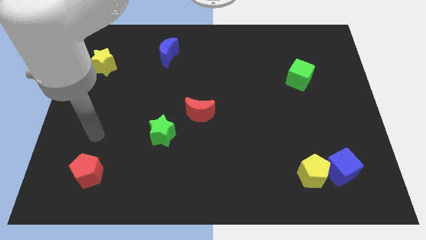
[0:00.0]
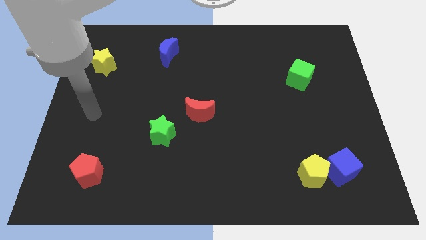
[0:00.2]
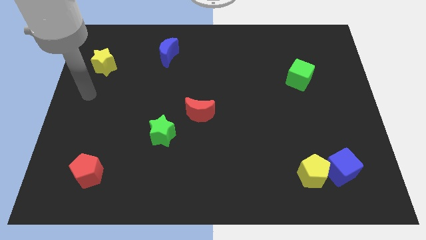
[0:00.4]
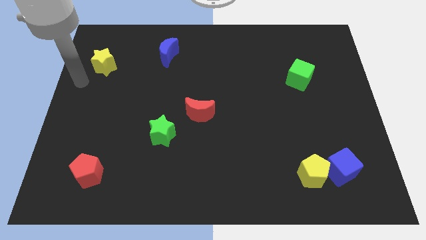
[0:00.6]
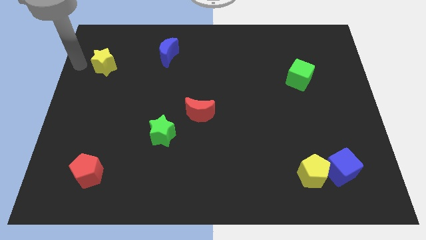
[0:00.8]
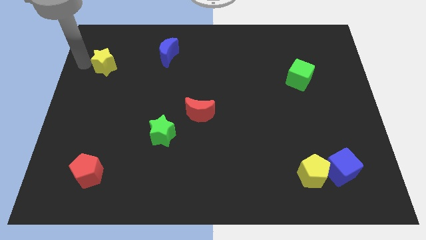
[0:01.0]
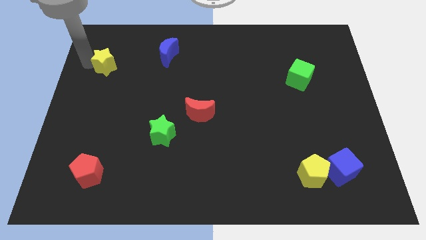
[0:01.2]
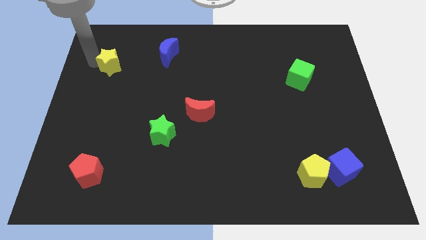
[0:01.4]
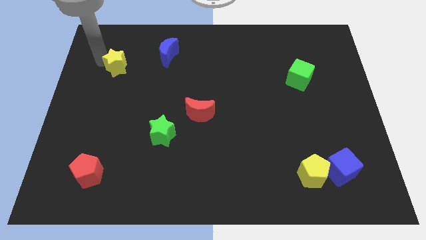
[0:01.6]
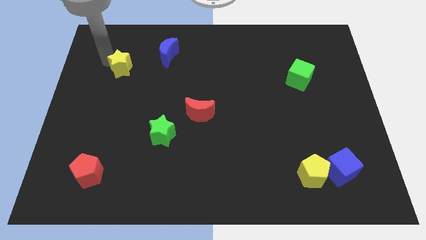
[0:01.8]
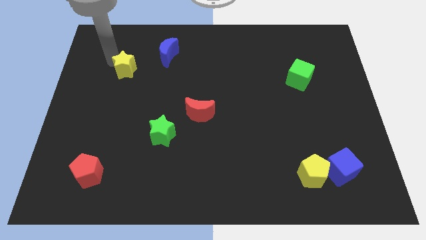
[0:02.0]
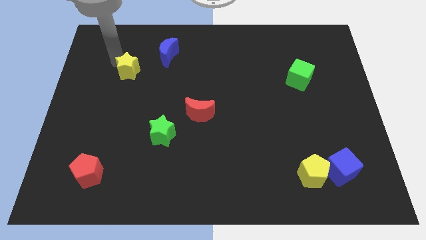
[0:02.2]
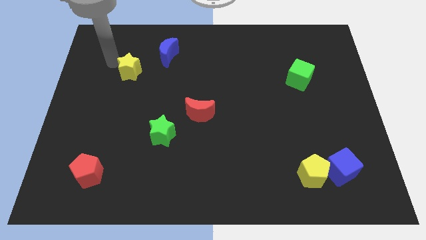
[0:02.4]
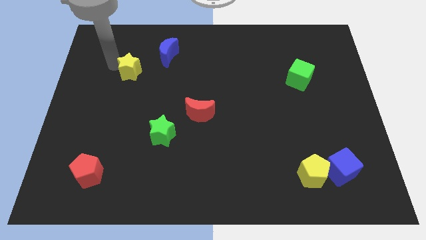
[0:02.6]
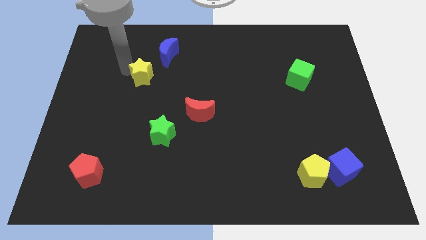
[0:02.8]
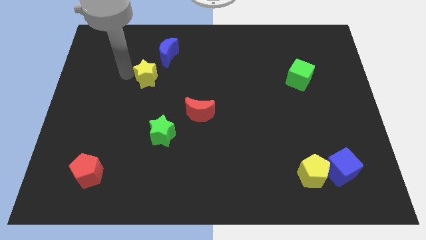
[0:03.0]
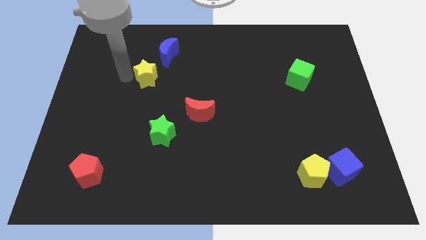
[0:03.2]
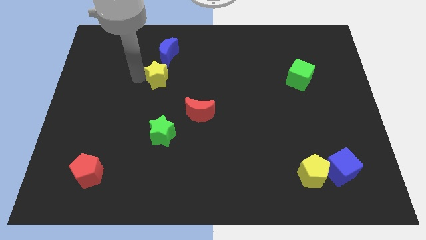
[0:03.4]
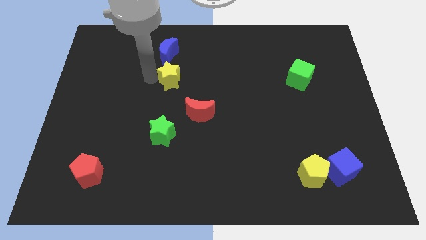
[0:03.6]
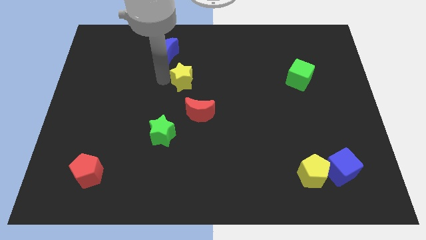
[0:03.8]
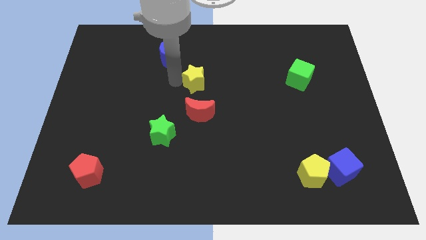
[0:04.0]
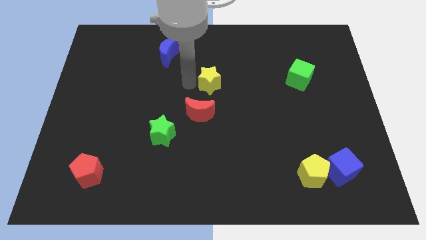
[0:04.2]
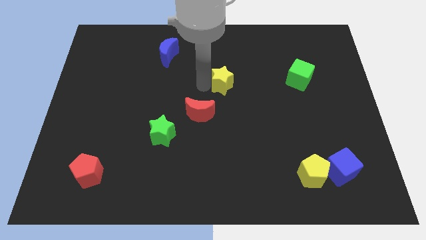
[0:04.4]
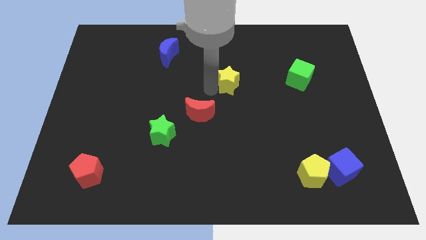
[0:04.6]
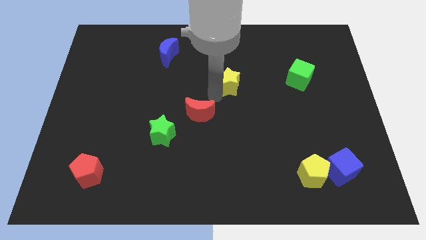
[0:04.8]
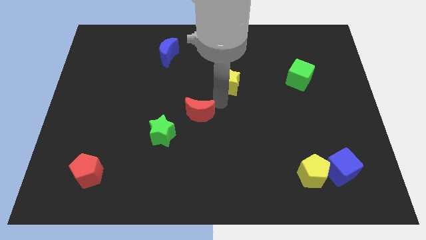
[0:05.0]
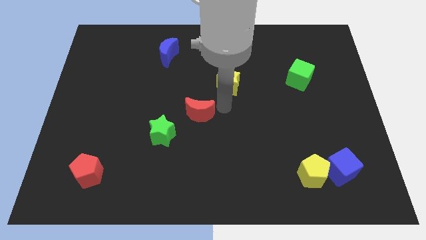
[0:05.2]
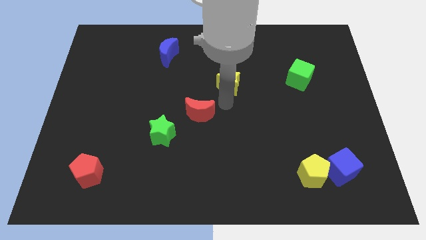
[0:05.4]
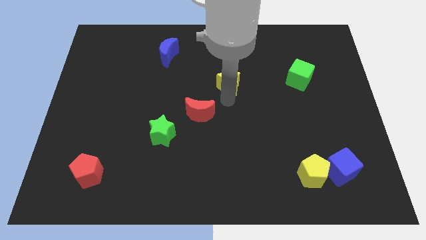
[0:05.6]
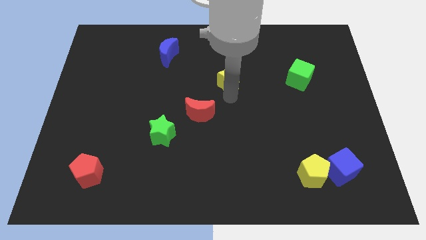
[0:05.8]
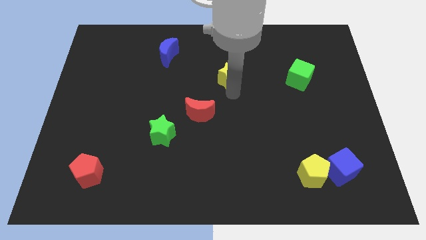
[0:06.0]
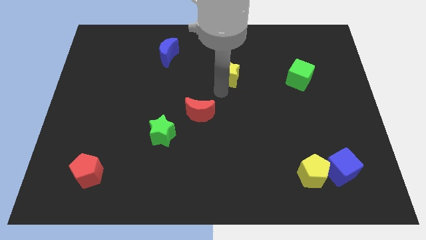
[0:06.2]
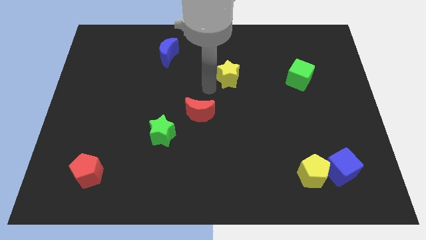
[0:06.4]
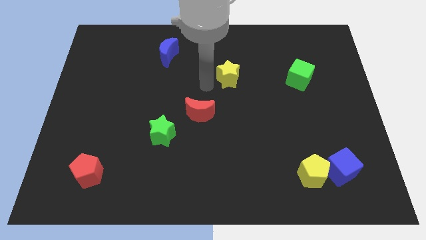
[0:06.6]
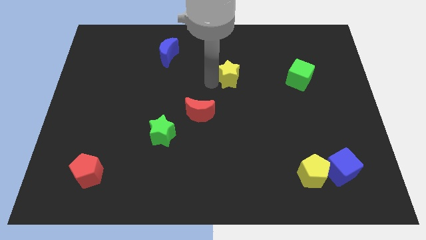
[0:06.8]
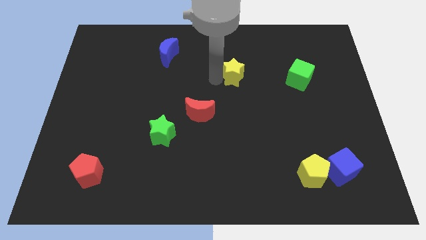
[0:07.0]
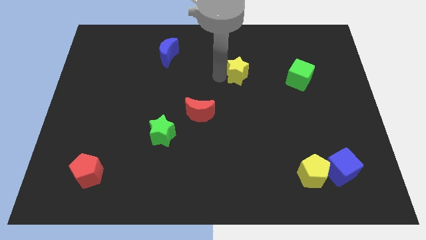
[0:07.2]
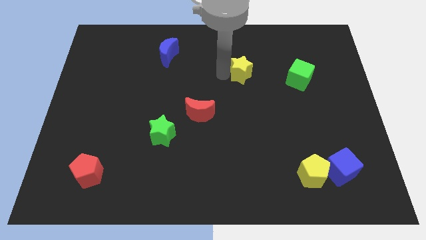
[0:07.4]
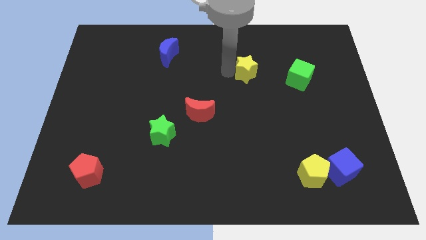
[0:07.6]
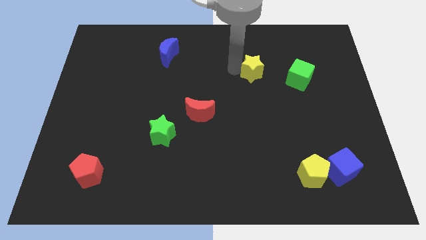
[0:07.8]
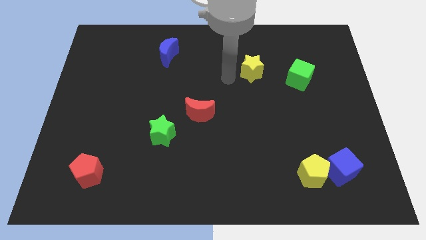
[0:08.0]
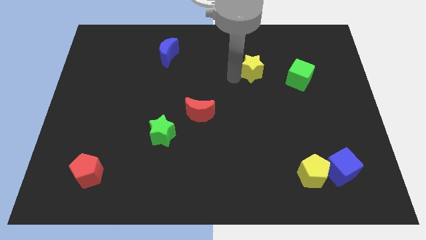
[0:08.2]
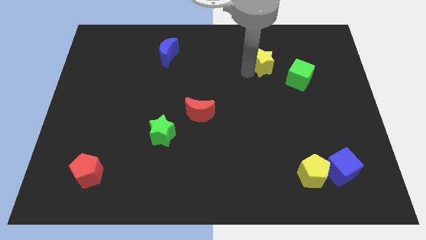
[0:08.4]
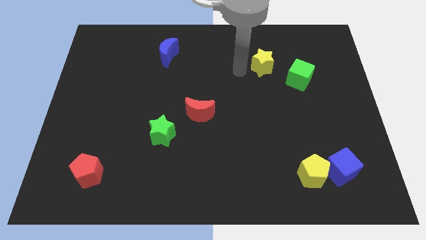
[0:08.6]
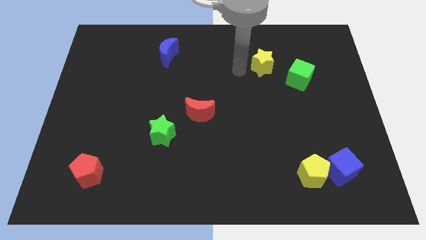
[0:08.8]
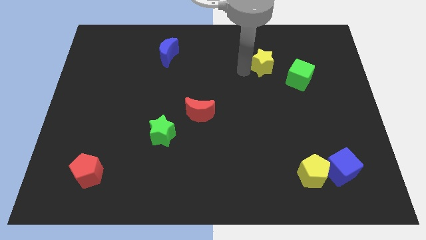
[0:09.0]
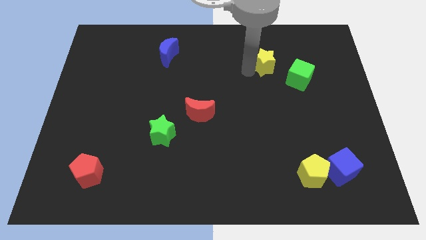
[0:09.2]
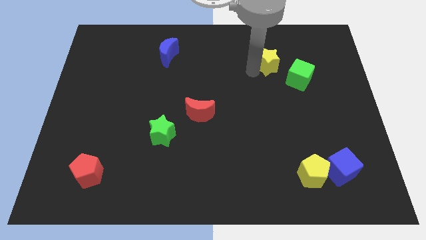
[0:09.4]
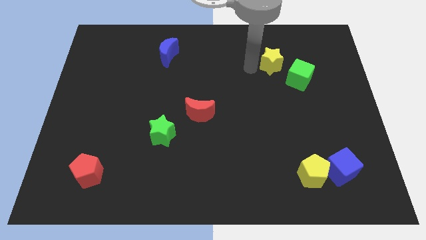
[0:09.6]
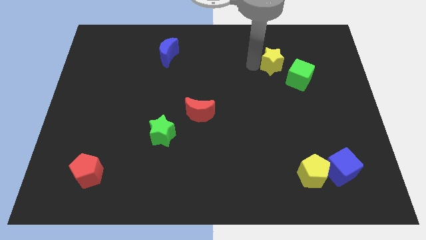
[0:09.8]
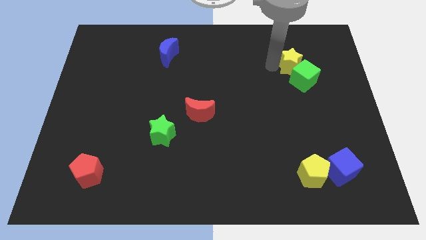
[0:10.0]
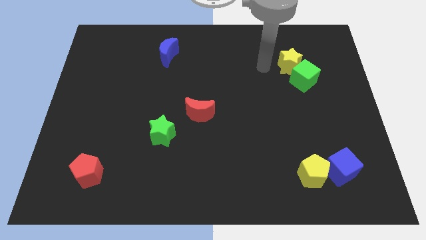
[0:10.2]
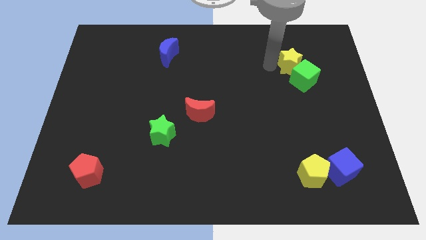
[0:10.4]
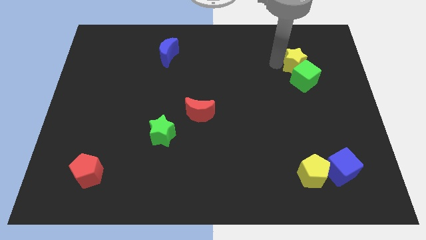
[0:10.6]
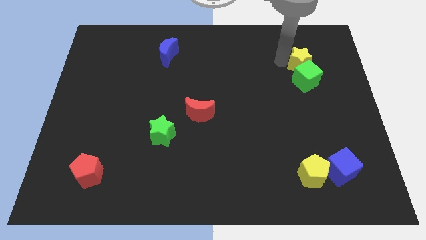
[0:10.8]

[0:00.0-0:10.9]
put the yellow star diagonally up and to the right of the green cube

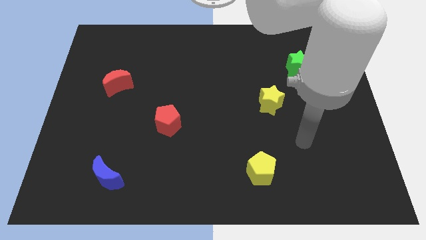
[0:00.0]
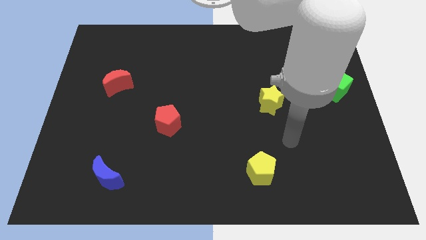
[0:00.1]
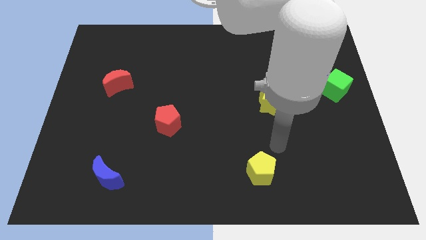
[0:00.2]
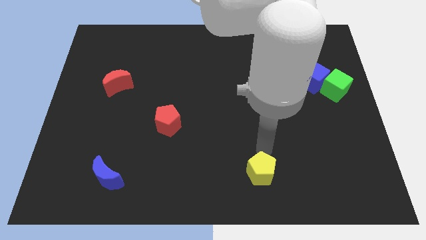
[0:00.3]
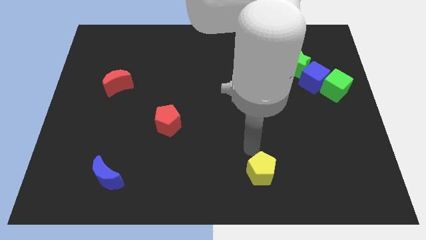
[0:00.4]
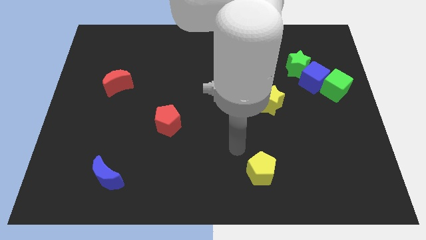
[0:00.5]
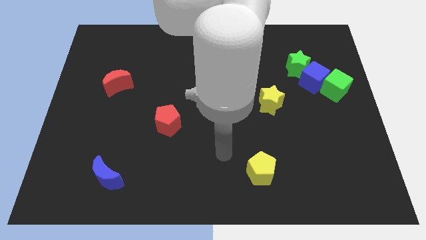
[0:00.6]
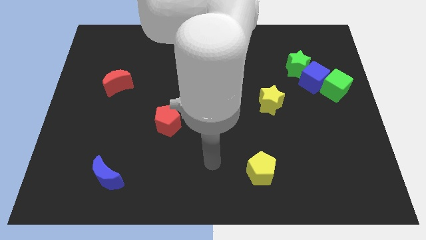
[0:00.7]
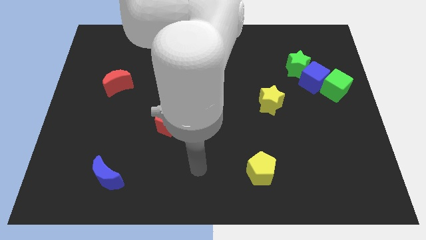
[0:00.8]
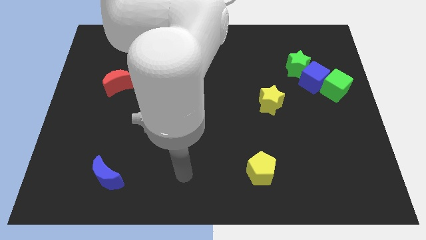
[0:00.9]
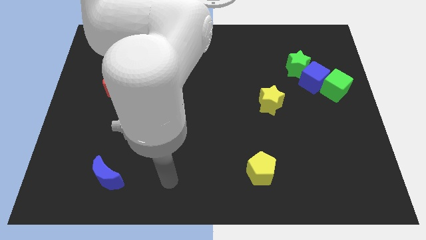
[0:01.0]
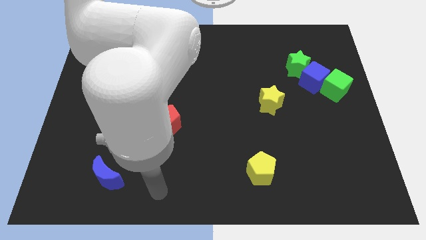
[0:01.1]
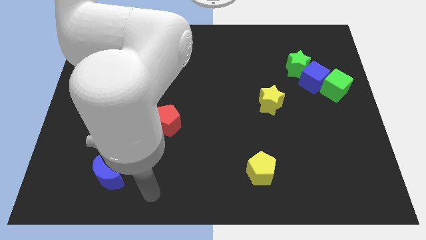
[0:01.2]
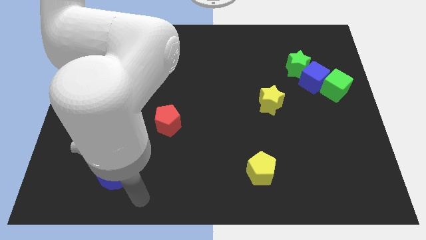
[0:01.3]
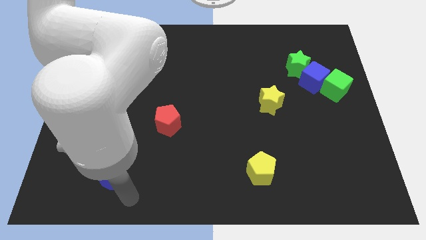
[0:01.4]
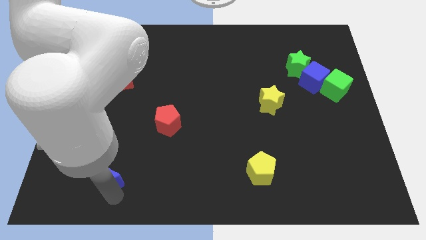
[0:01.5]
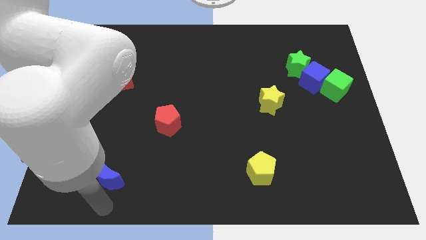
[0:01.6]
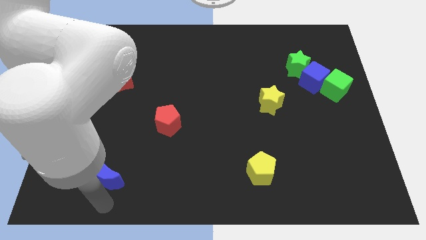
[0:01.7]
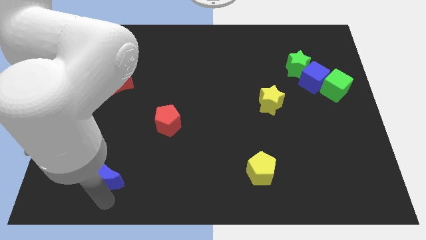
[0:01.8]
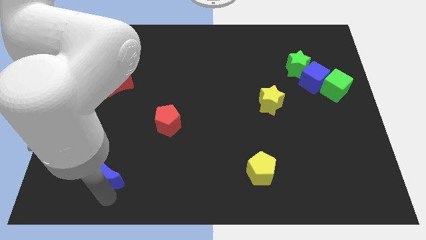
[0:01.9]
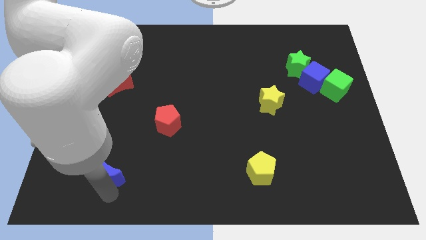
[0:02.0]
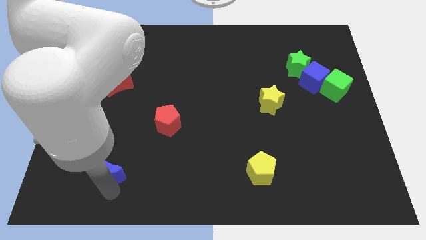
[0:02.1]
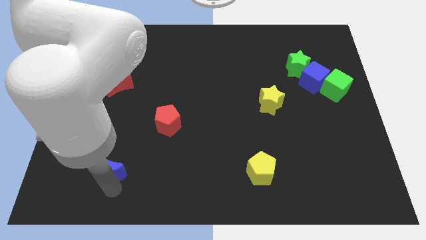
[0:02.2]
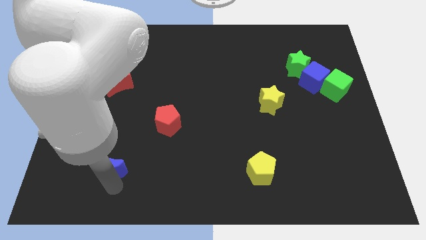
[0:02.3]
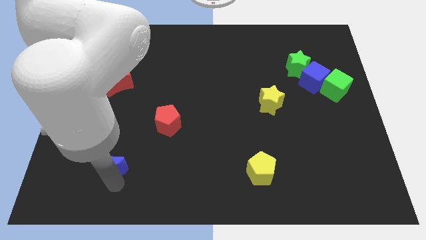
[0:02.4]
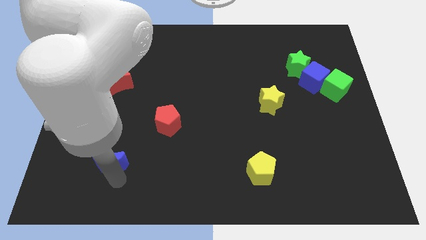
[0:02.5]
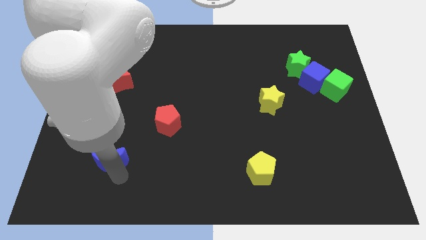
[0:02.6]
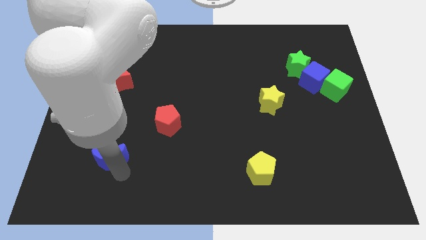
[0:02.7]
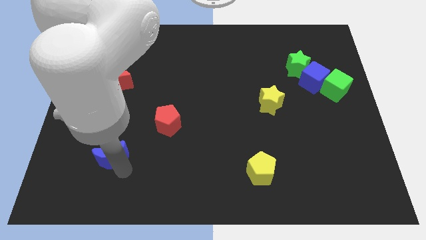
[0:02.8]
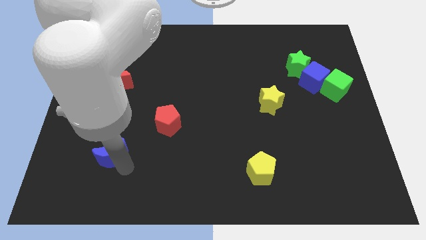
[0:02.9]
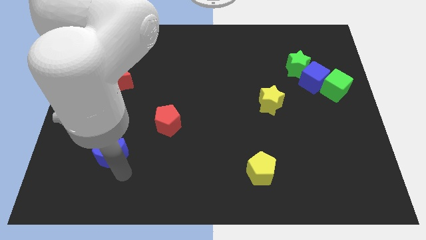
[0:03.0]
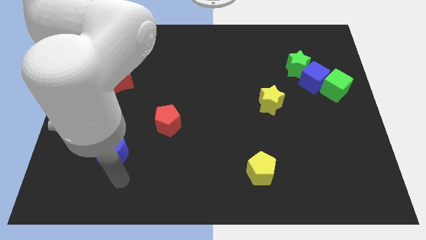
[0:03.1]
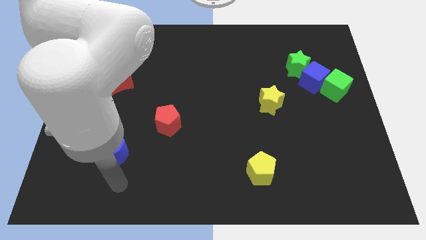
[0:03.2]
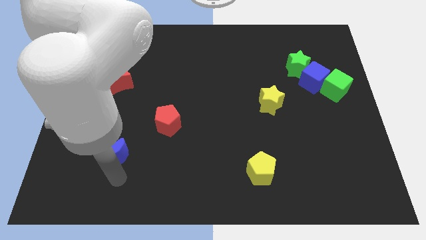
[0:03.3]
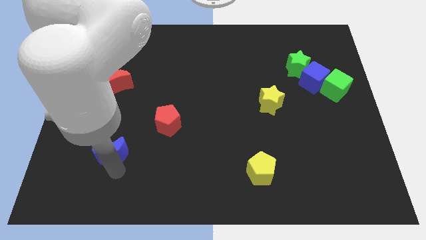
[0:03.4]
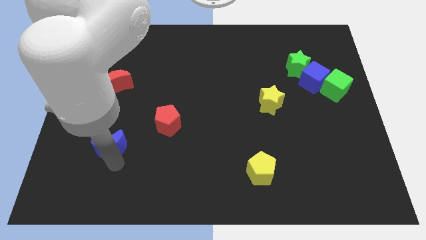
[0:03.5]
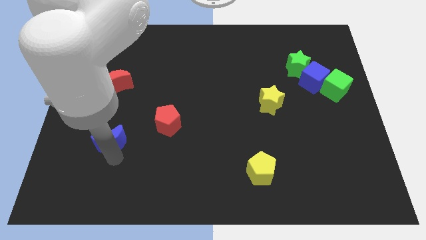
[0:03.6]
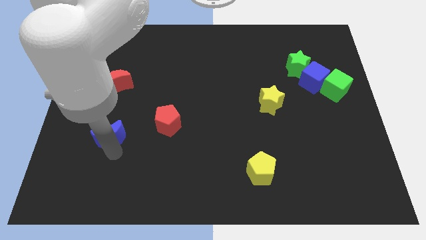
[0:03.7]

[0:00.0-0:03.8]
put the blue moon to the bottom side of the red moon
